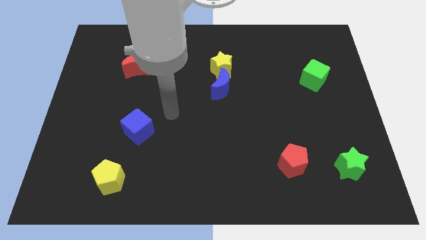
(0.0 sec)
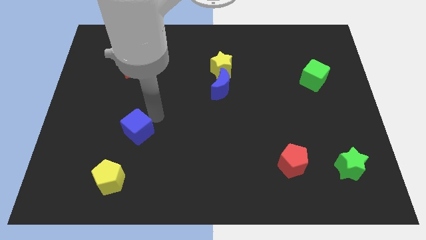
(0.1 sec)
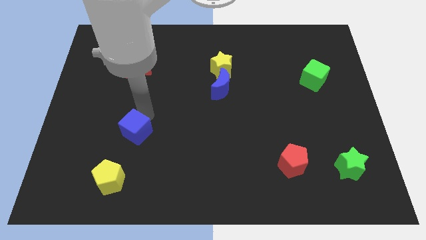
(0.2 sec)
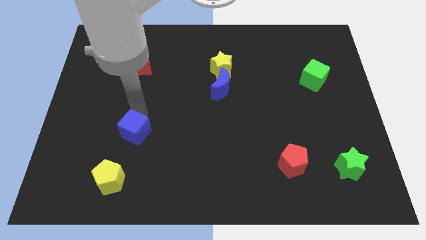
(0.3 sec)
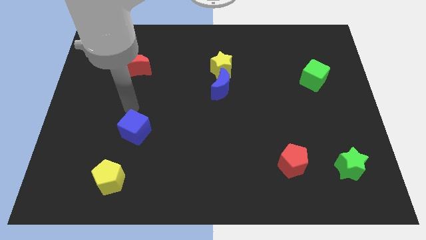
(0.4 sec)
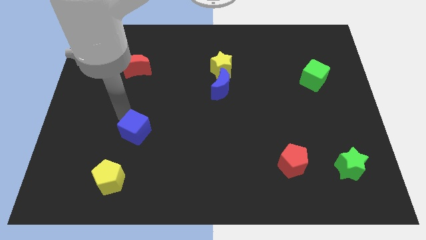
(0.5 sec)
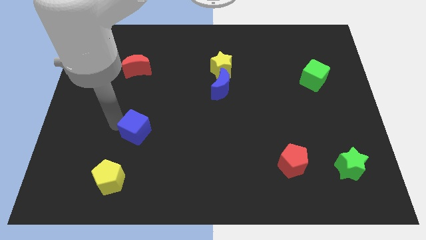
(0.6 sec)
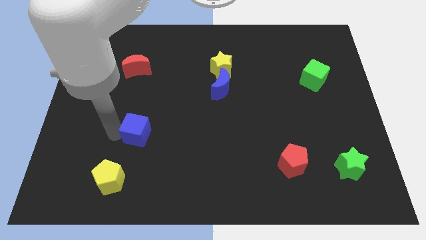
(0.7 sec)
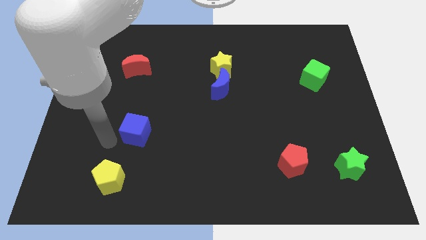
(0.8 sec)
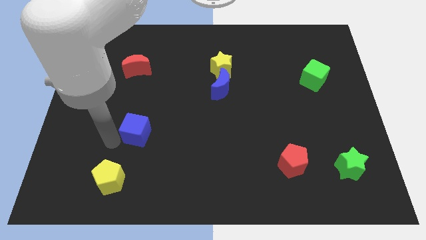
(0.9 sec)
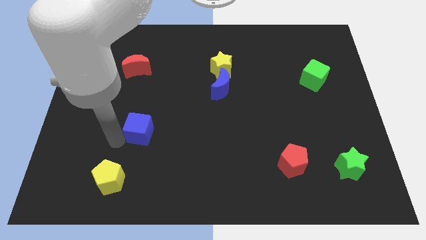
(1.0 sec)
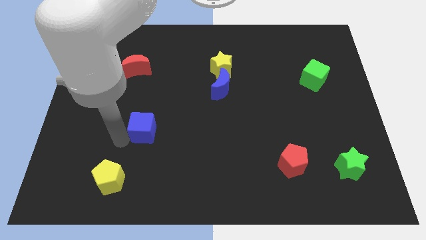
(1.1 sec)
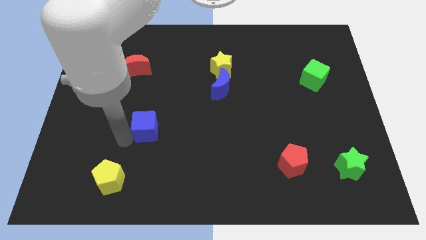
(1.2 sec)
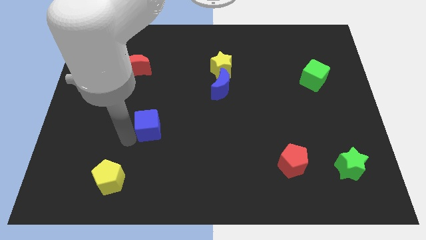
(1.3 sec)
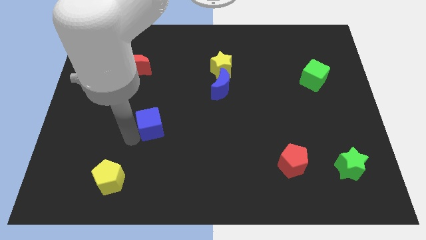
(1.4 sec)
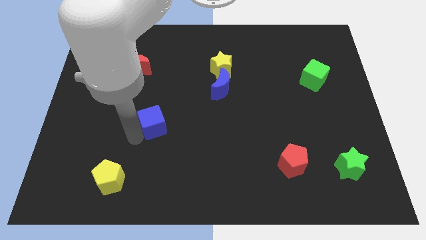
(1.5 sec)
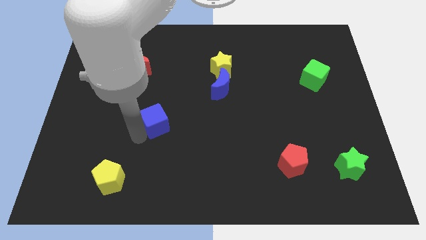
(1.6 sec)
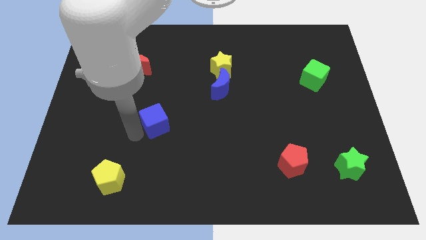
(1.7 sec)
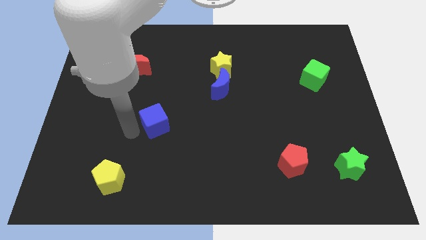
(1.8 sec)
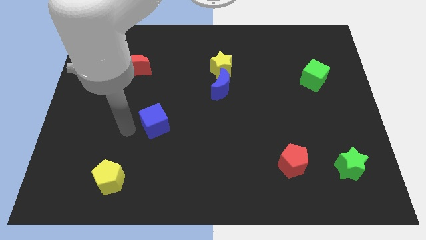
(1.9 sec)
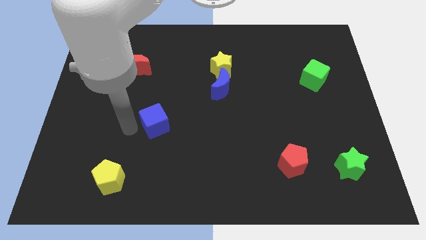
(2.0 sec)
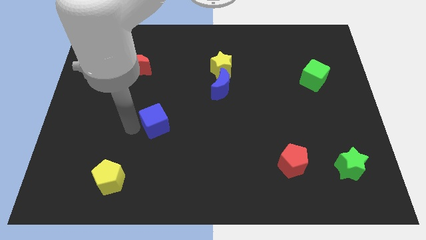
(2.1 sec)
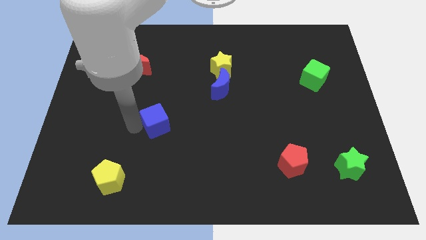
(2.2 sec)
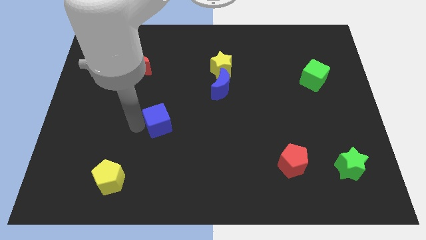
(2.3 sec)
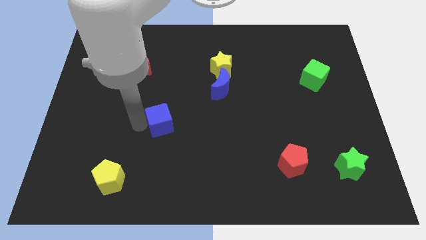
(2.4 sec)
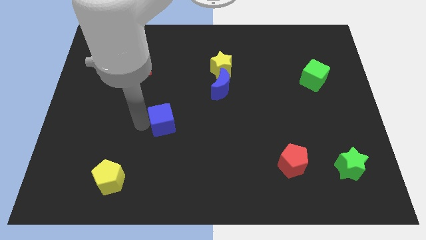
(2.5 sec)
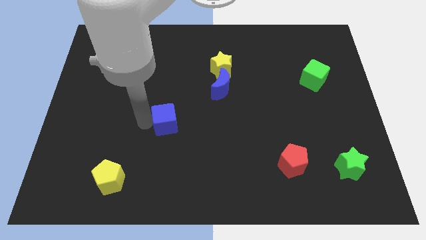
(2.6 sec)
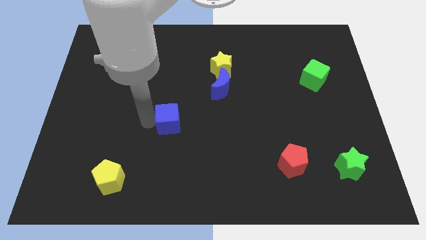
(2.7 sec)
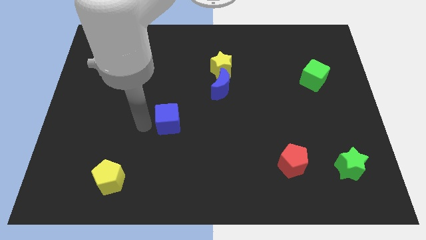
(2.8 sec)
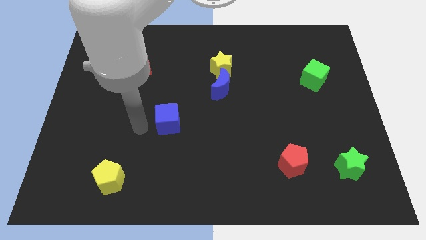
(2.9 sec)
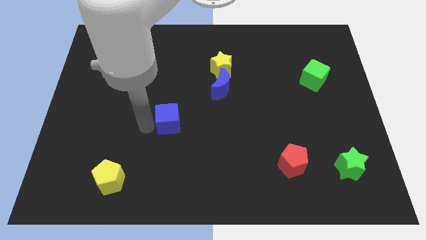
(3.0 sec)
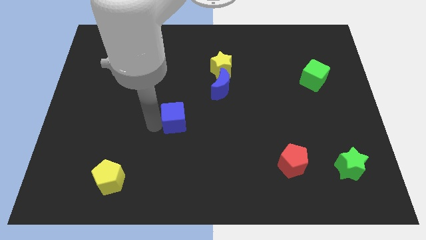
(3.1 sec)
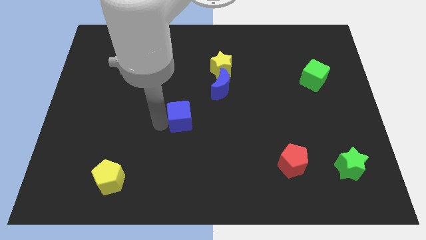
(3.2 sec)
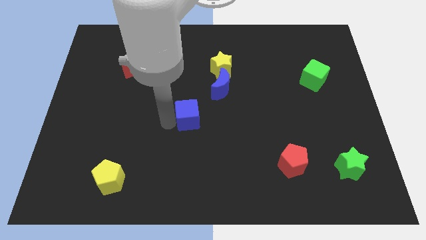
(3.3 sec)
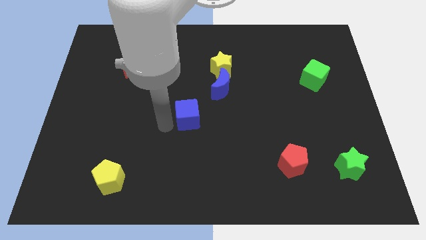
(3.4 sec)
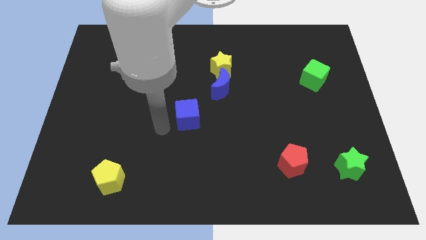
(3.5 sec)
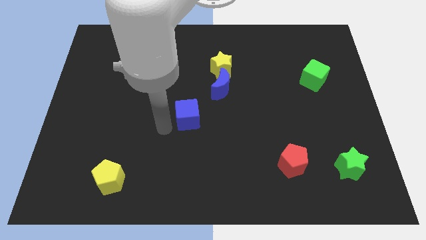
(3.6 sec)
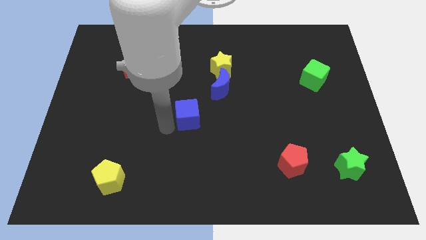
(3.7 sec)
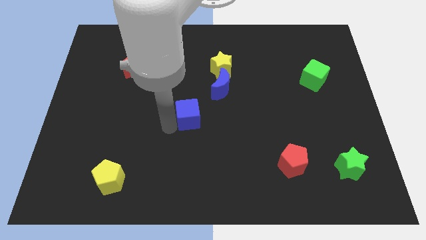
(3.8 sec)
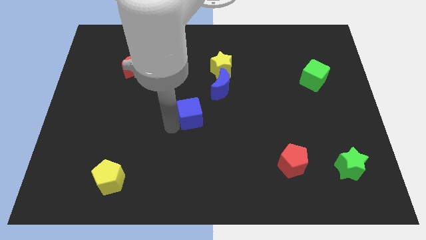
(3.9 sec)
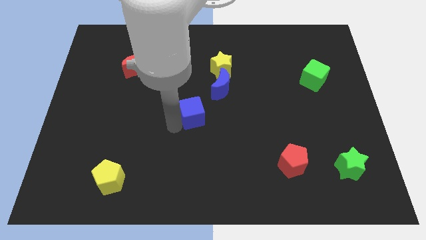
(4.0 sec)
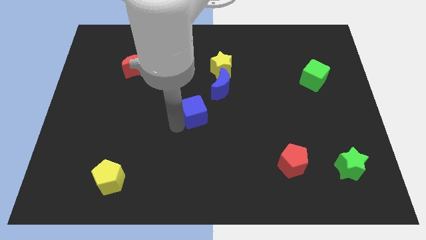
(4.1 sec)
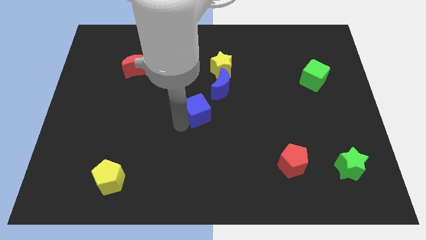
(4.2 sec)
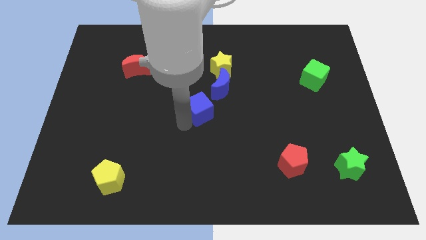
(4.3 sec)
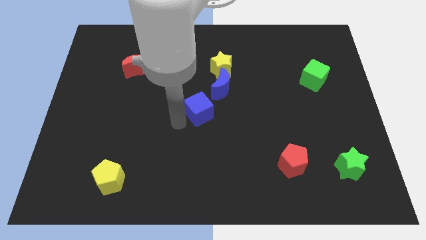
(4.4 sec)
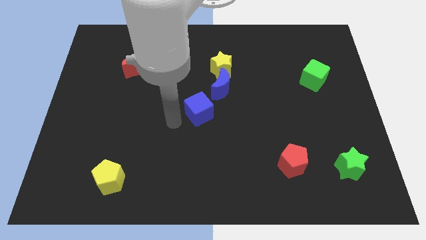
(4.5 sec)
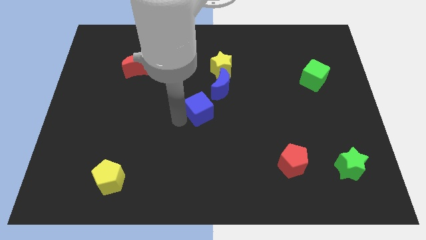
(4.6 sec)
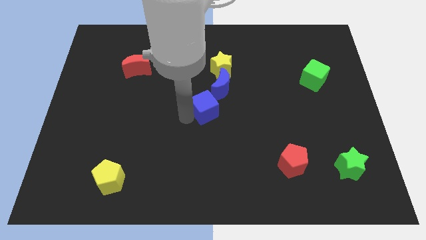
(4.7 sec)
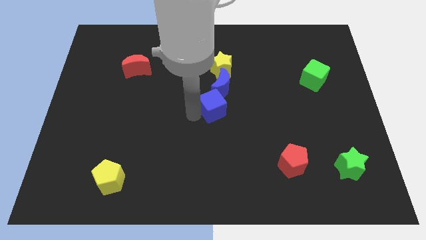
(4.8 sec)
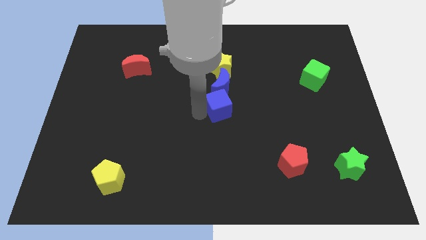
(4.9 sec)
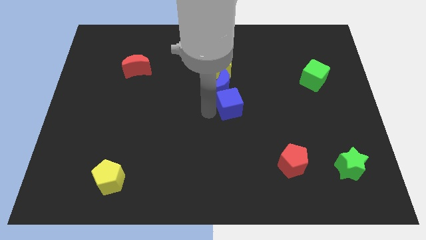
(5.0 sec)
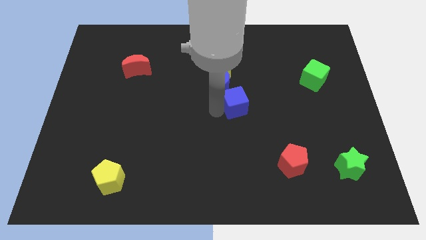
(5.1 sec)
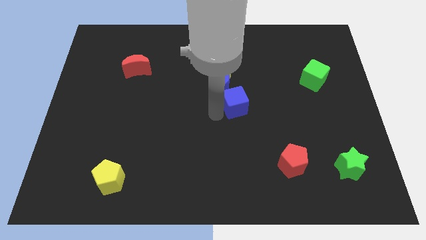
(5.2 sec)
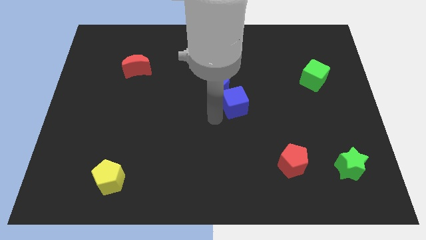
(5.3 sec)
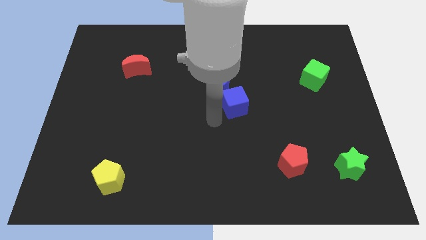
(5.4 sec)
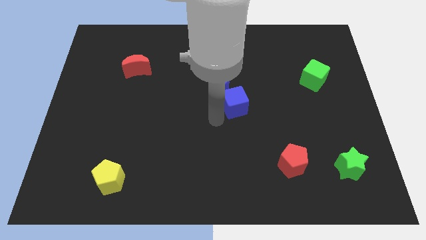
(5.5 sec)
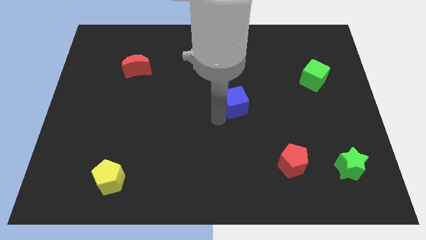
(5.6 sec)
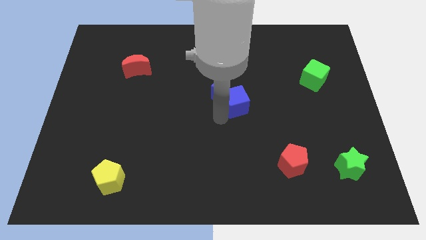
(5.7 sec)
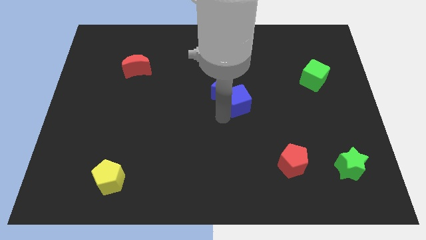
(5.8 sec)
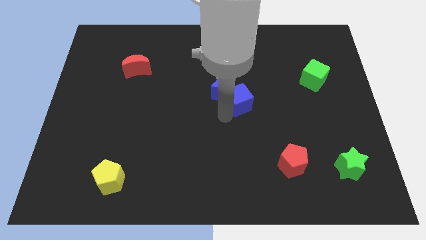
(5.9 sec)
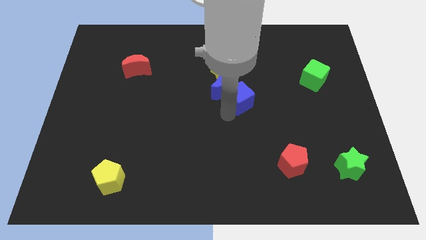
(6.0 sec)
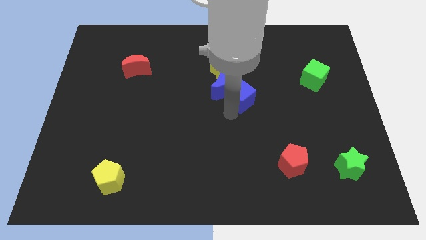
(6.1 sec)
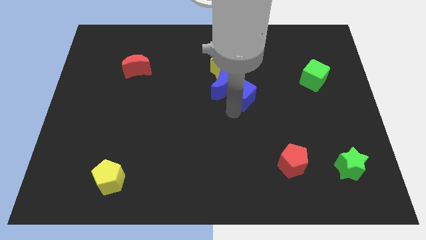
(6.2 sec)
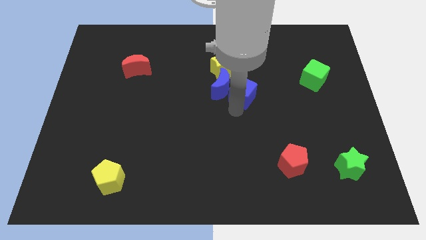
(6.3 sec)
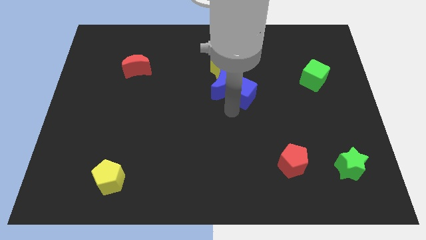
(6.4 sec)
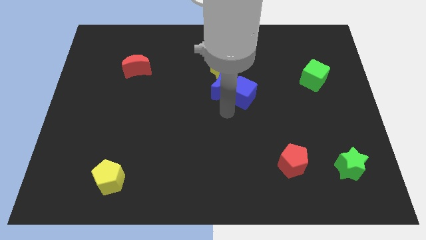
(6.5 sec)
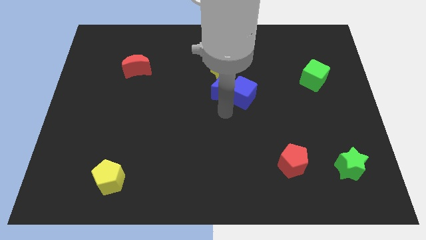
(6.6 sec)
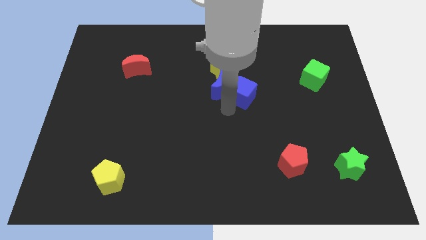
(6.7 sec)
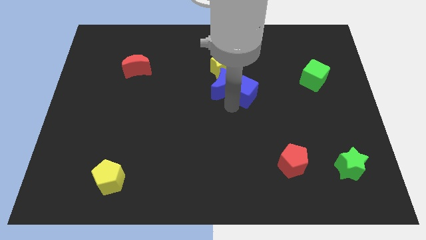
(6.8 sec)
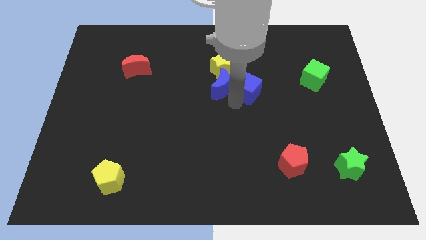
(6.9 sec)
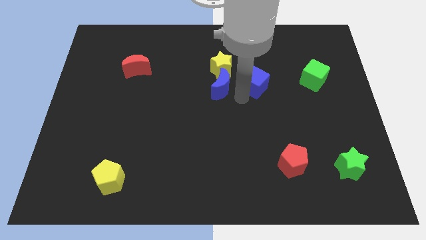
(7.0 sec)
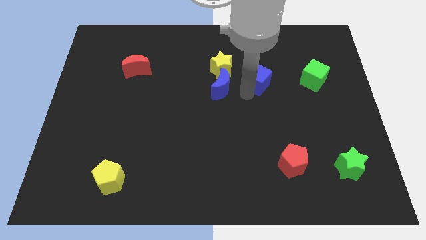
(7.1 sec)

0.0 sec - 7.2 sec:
move the blue cube to the right side of the yellow star
